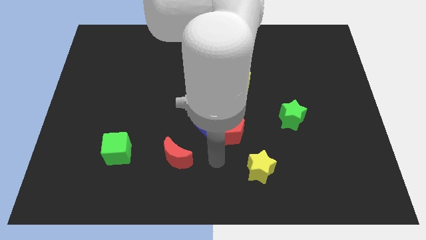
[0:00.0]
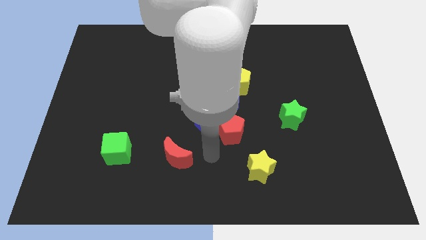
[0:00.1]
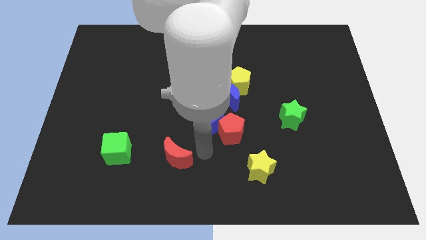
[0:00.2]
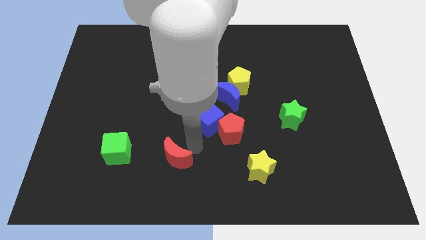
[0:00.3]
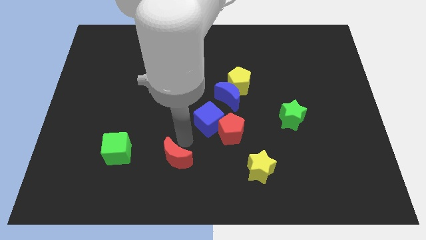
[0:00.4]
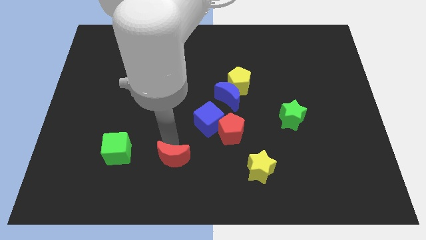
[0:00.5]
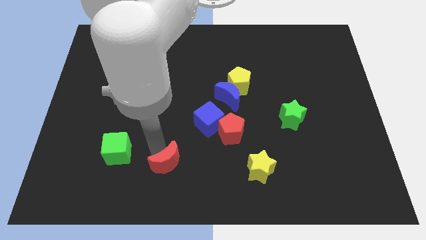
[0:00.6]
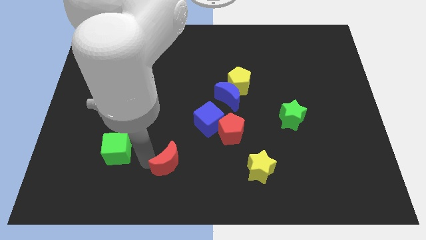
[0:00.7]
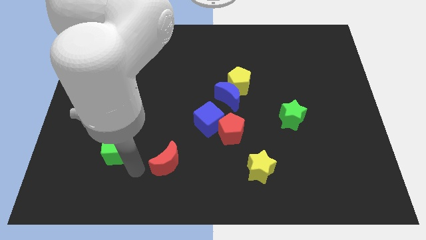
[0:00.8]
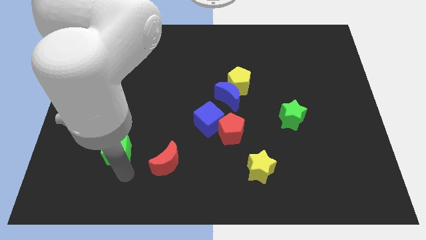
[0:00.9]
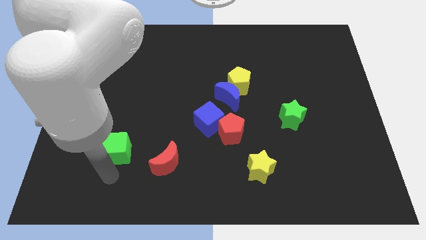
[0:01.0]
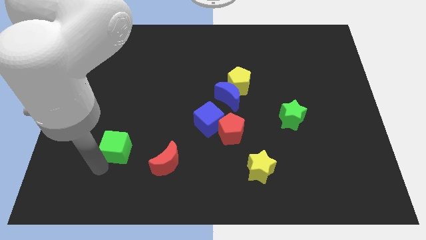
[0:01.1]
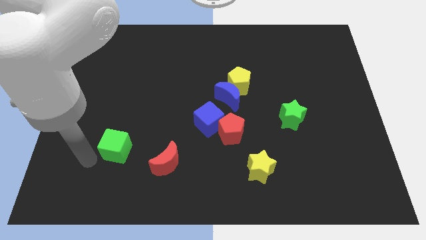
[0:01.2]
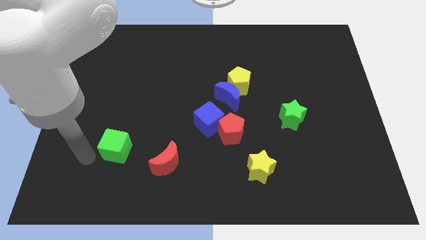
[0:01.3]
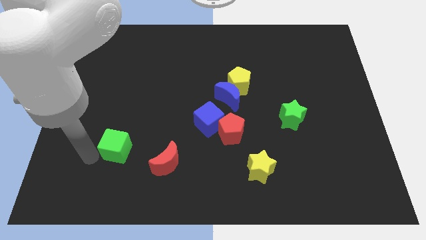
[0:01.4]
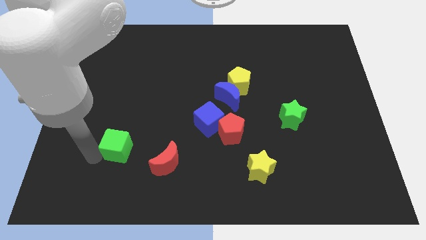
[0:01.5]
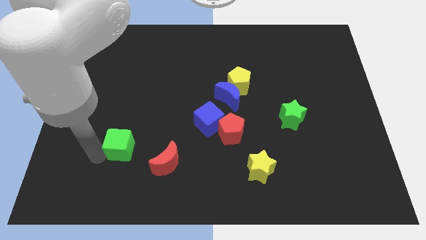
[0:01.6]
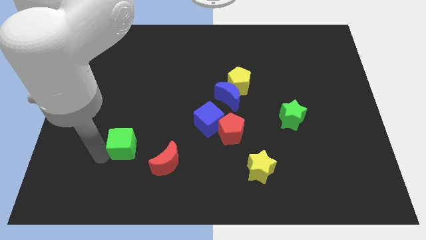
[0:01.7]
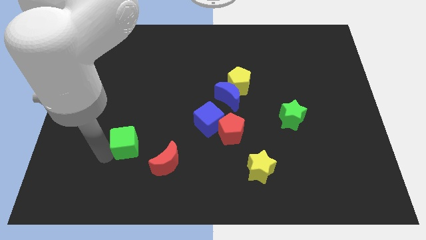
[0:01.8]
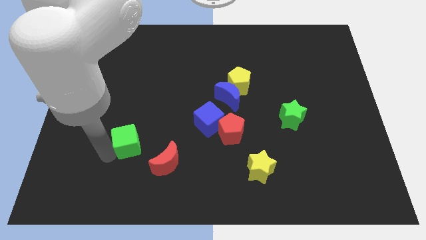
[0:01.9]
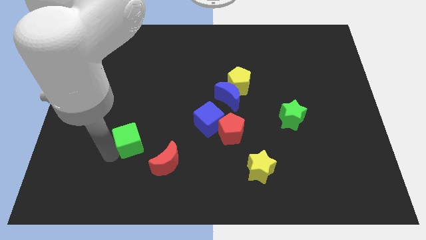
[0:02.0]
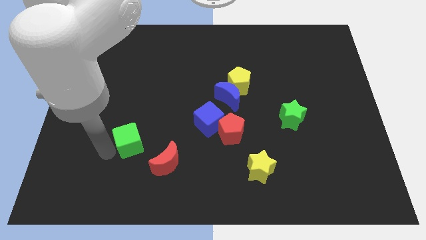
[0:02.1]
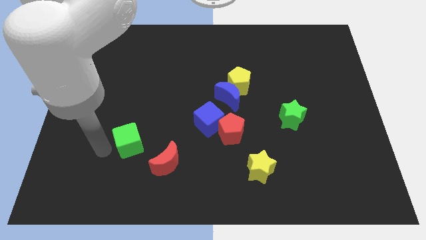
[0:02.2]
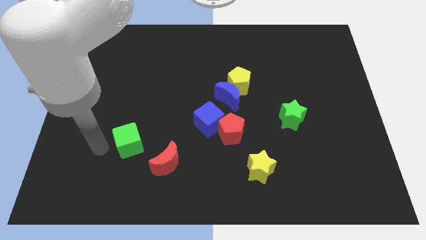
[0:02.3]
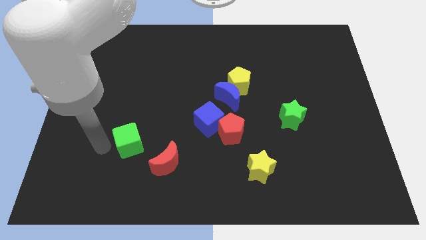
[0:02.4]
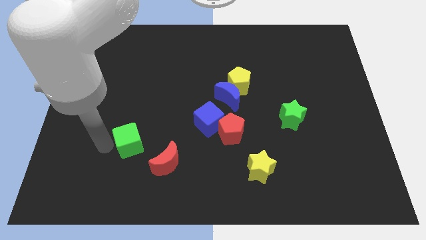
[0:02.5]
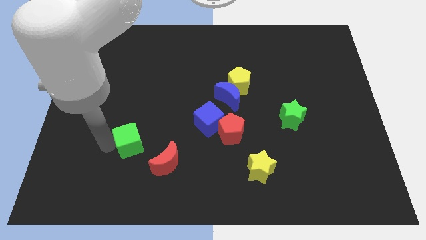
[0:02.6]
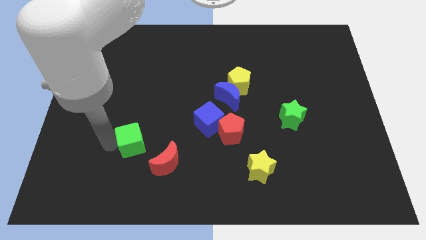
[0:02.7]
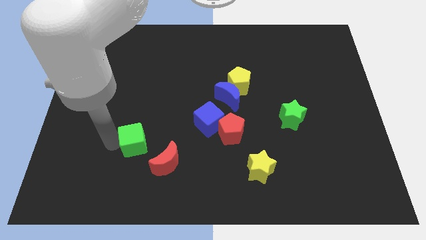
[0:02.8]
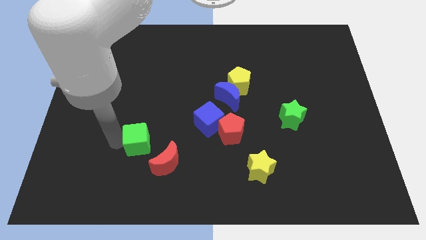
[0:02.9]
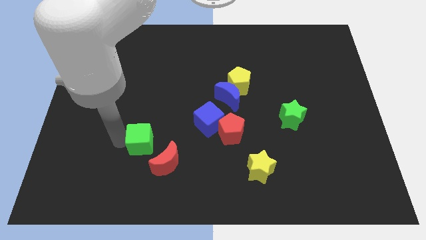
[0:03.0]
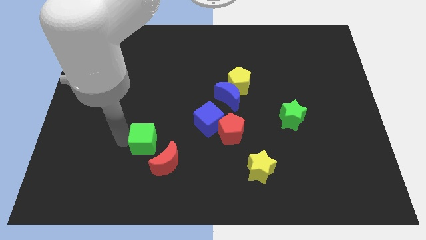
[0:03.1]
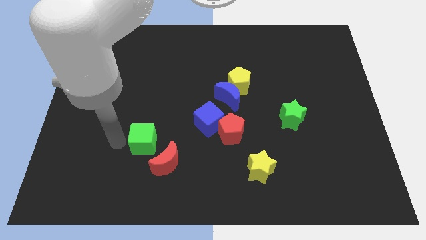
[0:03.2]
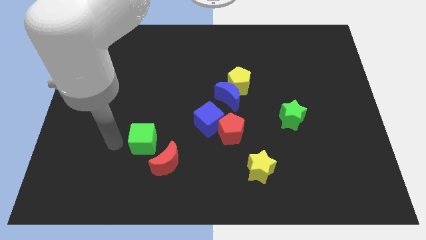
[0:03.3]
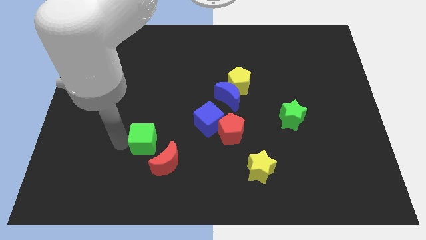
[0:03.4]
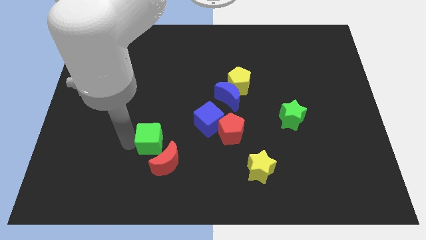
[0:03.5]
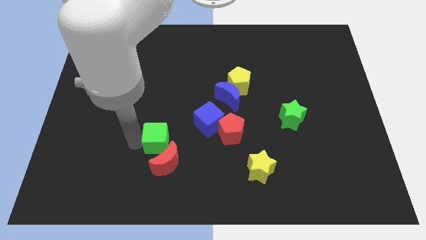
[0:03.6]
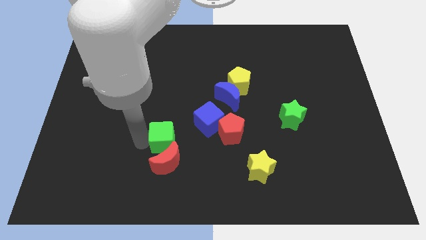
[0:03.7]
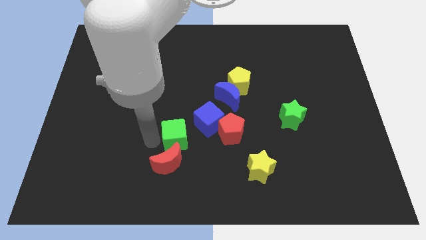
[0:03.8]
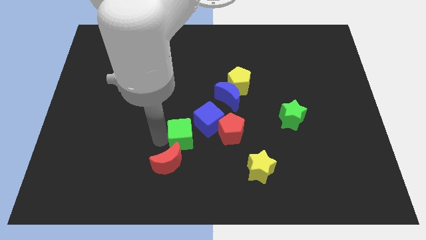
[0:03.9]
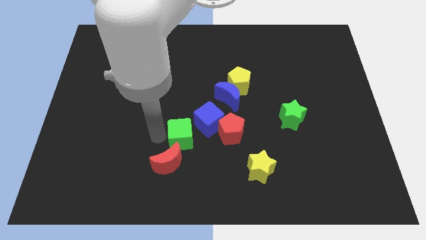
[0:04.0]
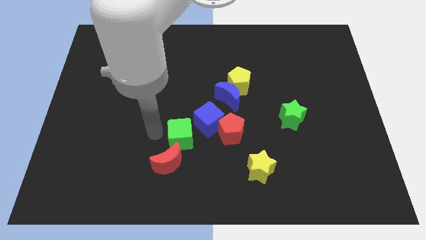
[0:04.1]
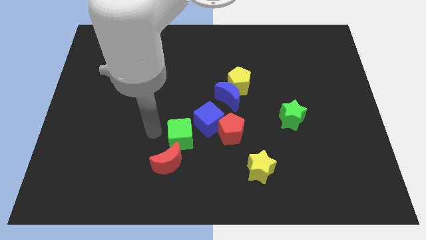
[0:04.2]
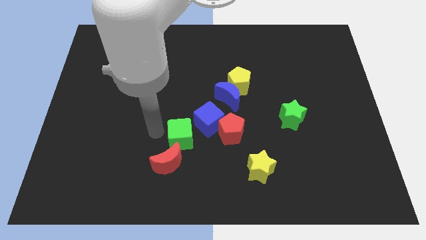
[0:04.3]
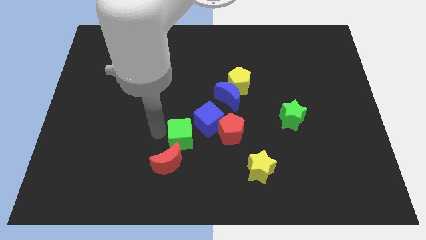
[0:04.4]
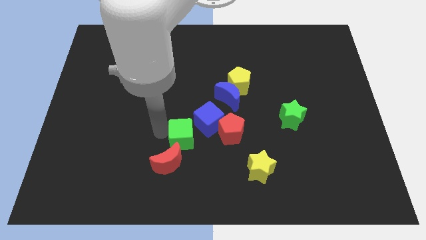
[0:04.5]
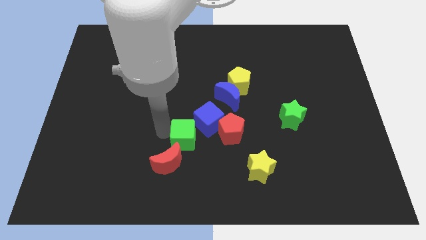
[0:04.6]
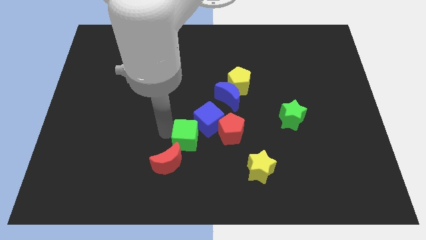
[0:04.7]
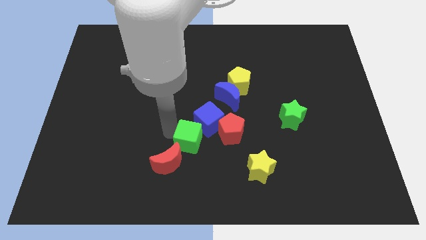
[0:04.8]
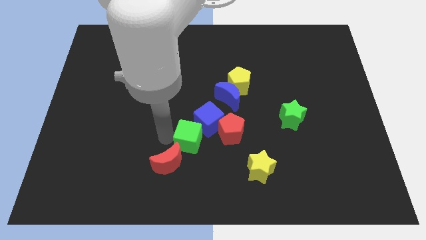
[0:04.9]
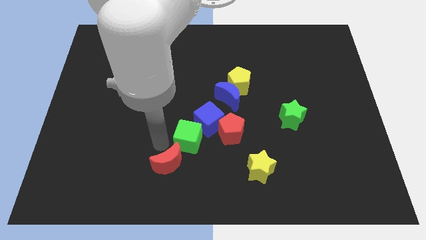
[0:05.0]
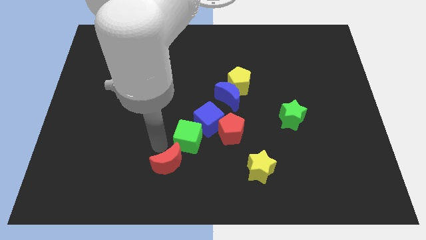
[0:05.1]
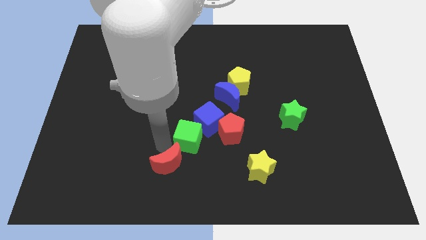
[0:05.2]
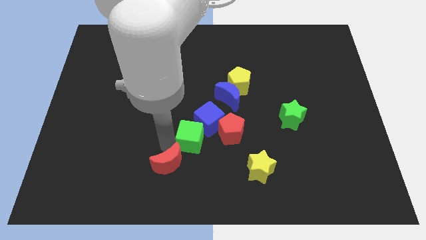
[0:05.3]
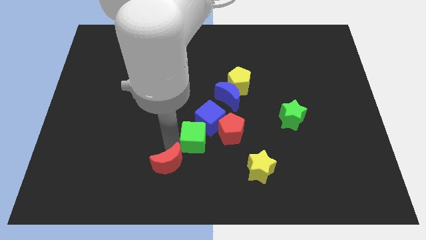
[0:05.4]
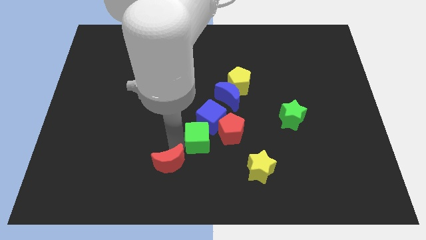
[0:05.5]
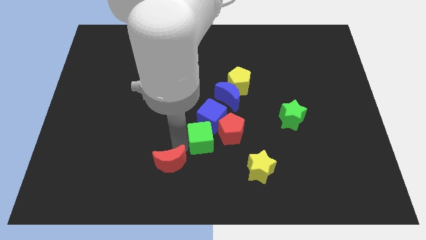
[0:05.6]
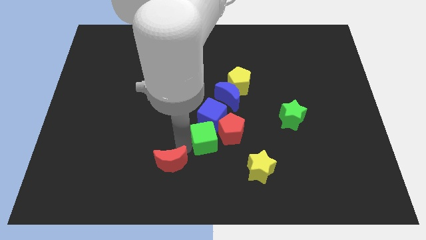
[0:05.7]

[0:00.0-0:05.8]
put the green cube to the red pentagon

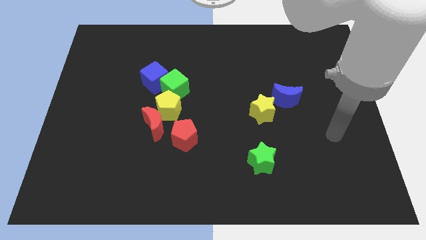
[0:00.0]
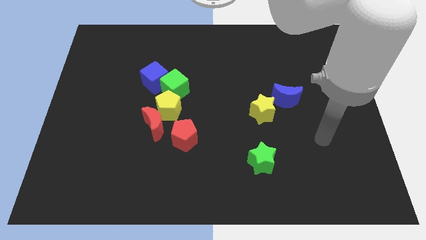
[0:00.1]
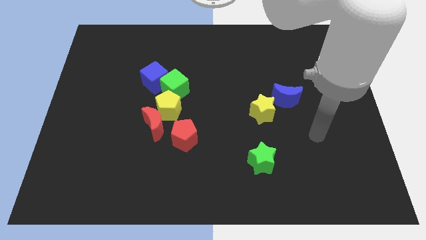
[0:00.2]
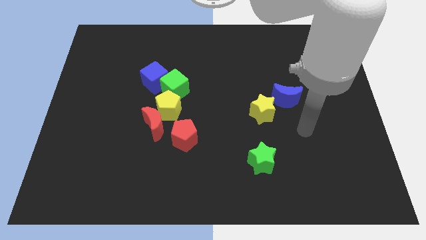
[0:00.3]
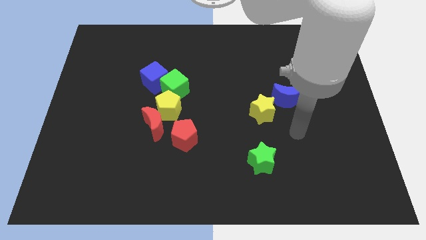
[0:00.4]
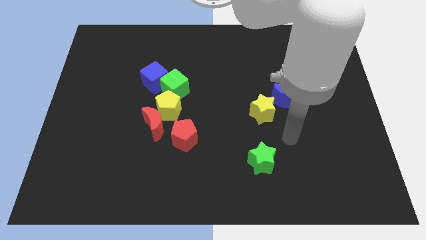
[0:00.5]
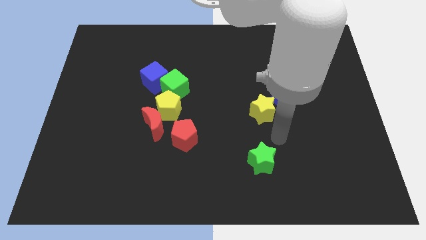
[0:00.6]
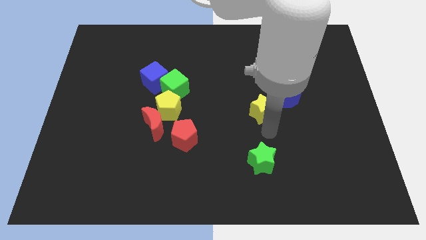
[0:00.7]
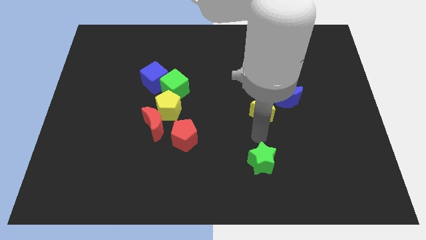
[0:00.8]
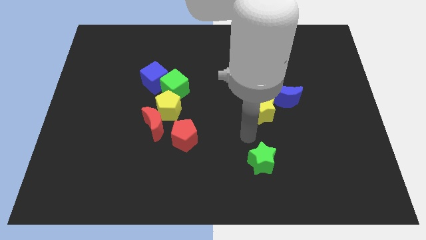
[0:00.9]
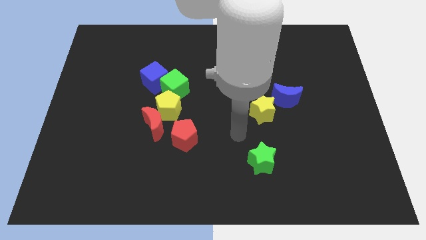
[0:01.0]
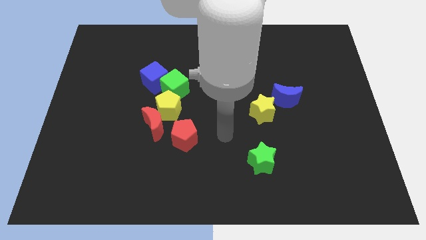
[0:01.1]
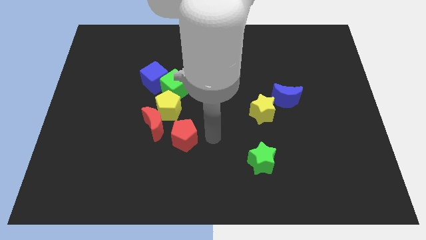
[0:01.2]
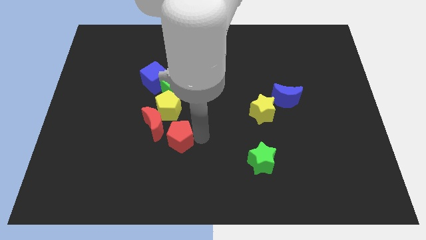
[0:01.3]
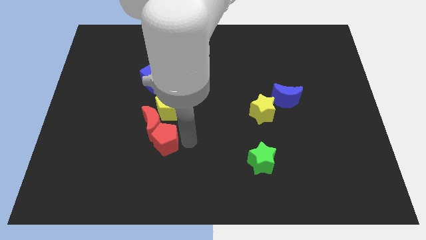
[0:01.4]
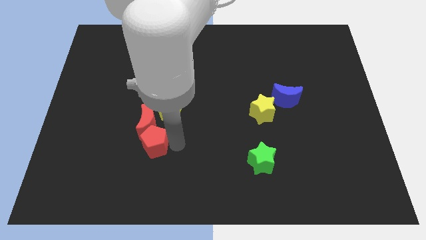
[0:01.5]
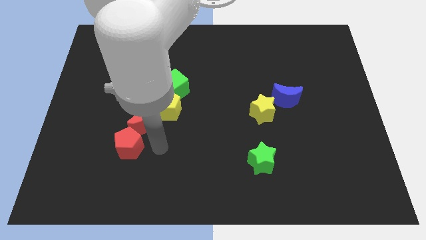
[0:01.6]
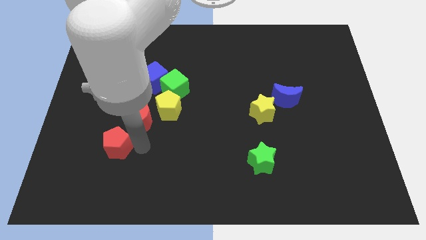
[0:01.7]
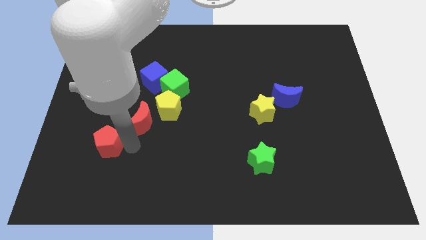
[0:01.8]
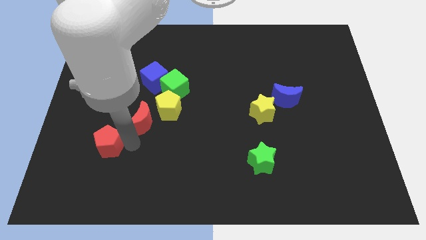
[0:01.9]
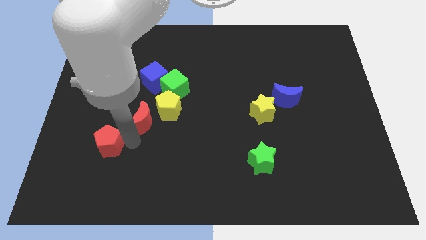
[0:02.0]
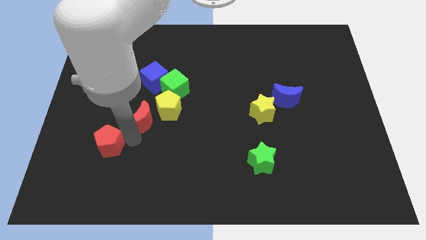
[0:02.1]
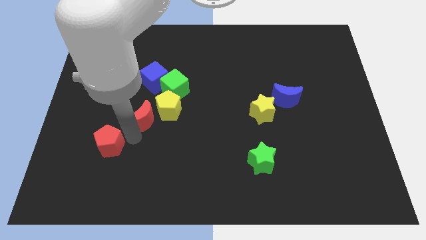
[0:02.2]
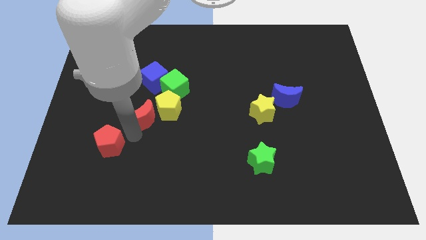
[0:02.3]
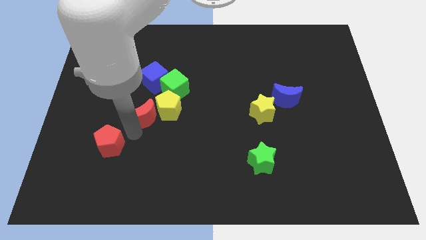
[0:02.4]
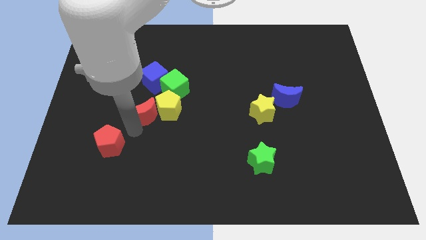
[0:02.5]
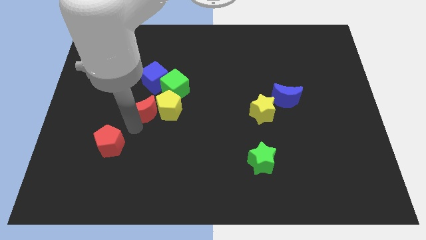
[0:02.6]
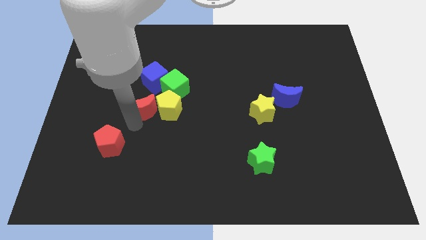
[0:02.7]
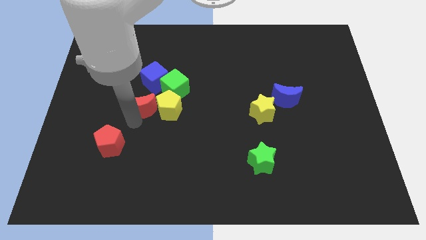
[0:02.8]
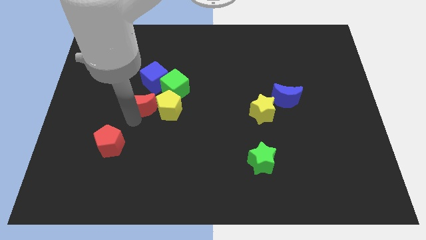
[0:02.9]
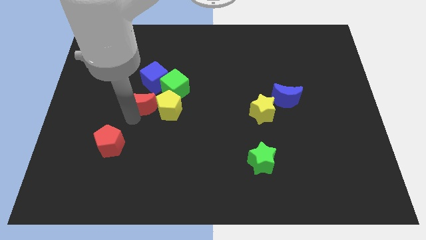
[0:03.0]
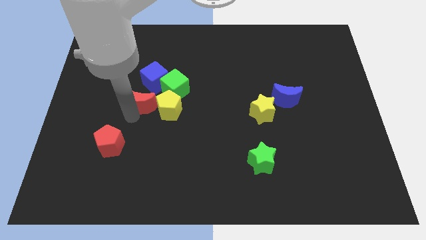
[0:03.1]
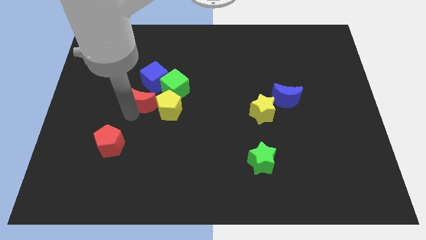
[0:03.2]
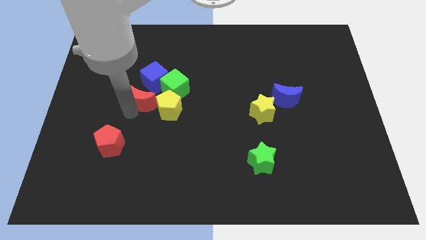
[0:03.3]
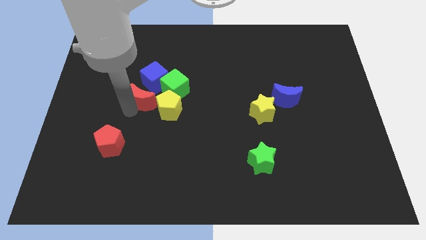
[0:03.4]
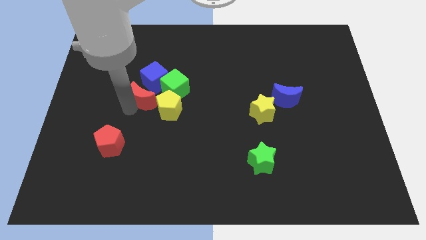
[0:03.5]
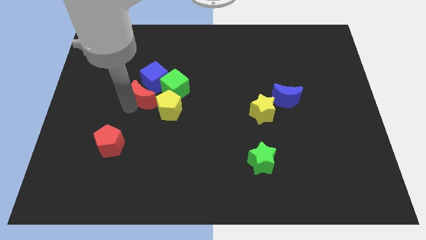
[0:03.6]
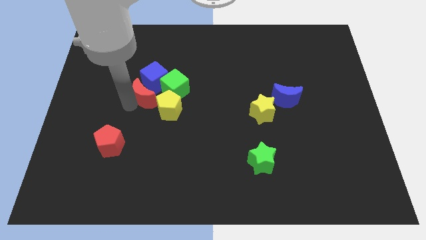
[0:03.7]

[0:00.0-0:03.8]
put the red moon towards the blue cube
